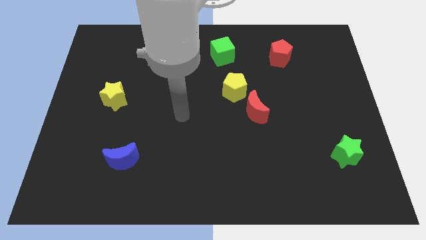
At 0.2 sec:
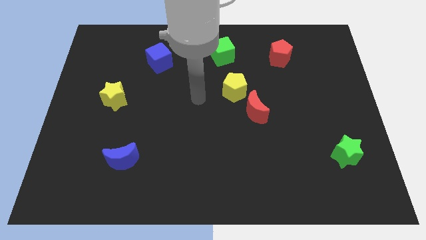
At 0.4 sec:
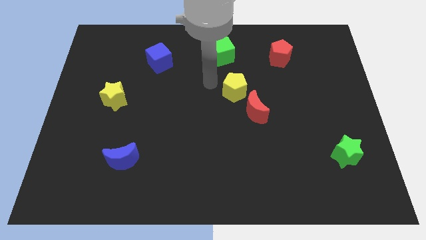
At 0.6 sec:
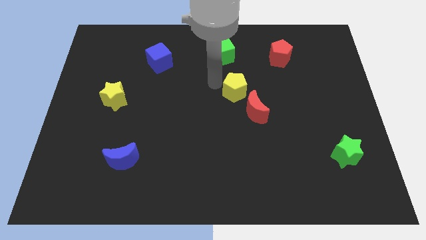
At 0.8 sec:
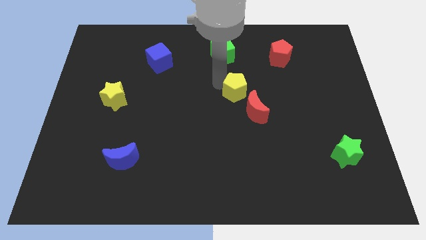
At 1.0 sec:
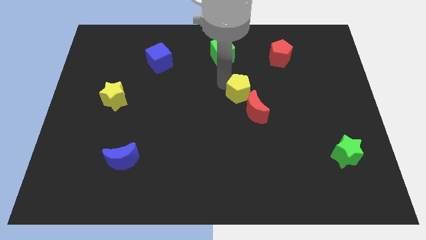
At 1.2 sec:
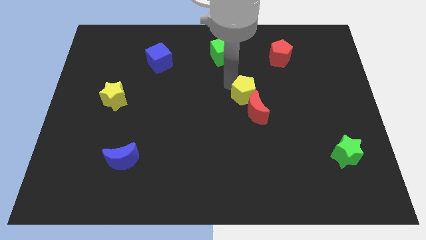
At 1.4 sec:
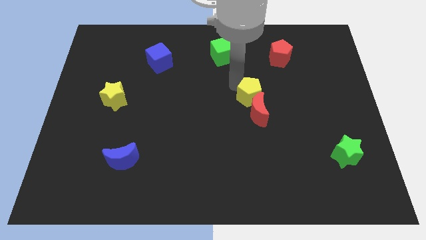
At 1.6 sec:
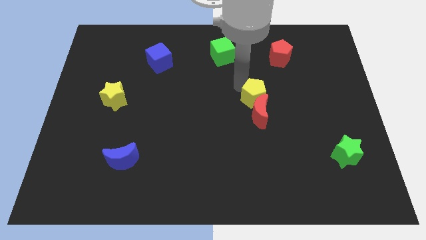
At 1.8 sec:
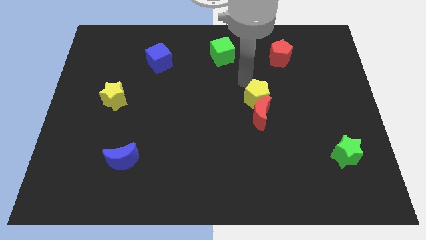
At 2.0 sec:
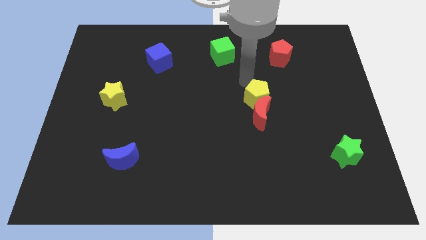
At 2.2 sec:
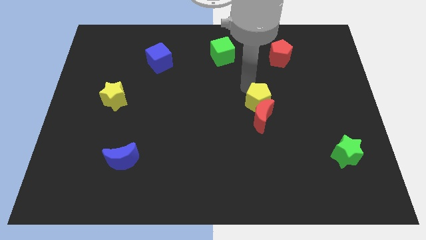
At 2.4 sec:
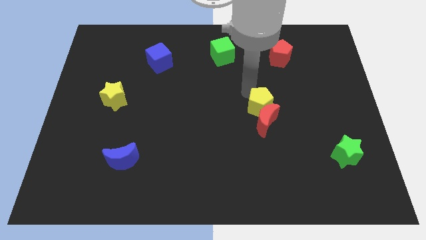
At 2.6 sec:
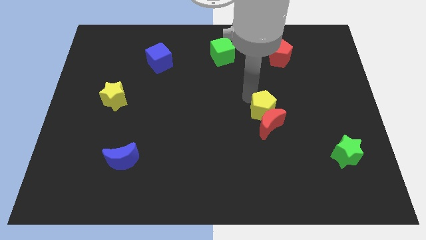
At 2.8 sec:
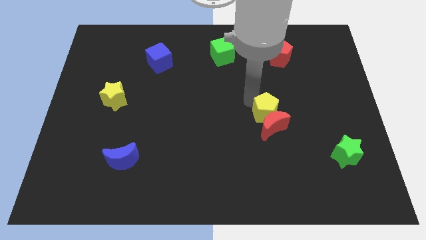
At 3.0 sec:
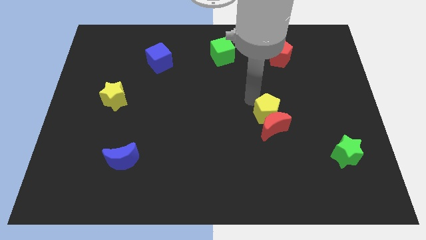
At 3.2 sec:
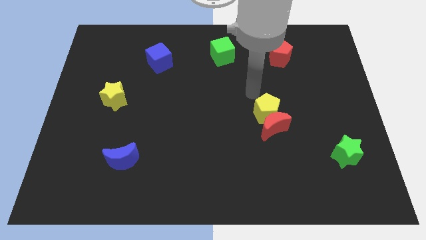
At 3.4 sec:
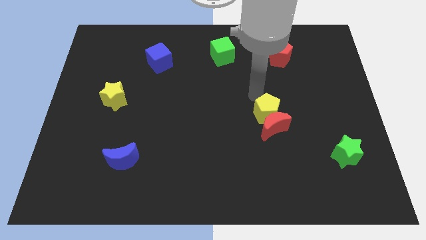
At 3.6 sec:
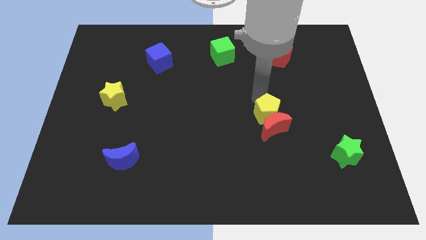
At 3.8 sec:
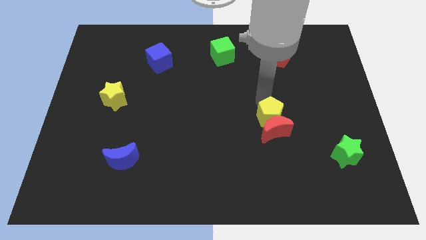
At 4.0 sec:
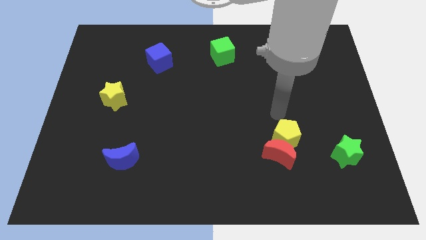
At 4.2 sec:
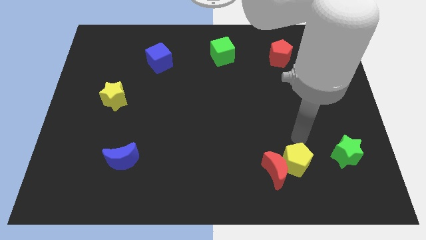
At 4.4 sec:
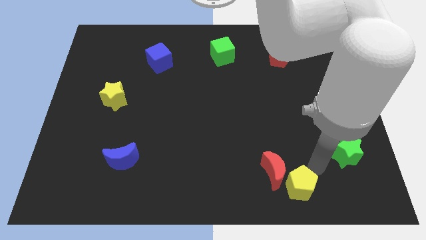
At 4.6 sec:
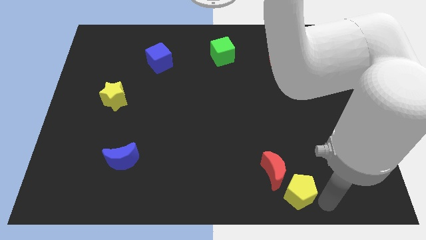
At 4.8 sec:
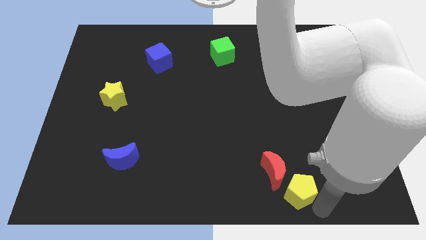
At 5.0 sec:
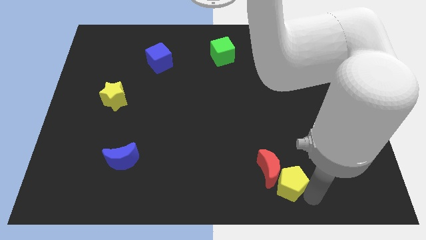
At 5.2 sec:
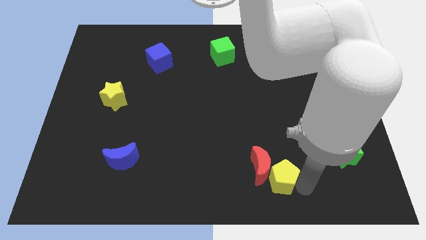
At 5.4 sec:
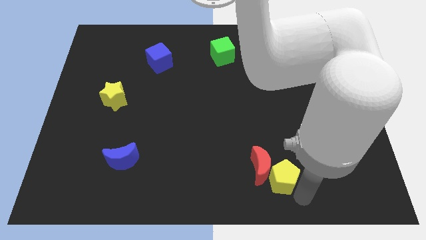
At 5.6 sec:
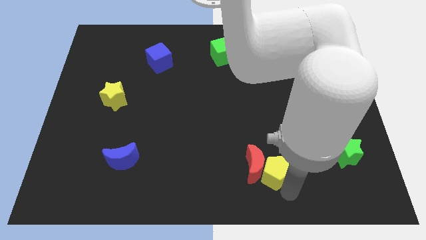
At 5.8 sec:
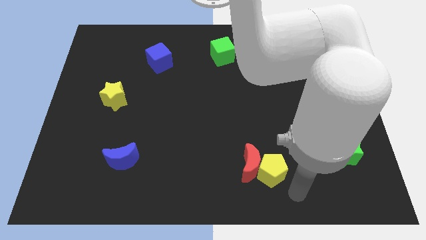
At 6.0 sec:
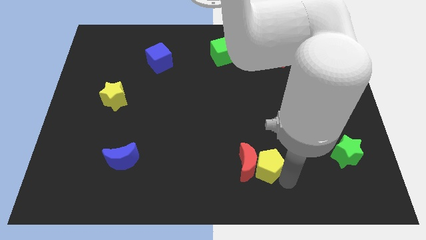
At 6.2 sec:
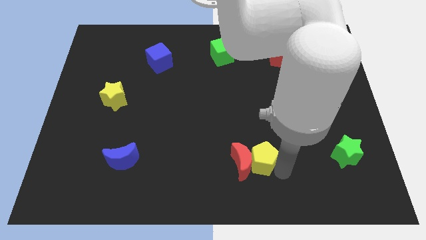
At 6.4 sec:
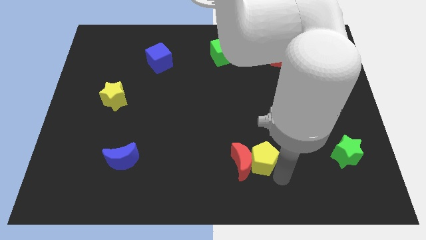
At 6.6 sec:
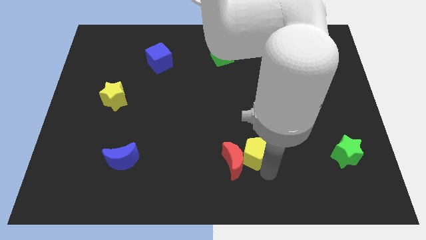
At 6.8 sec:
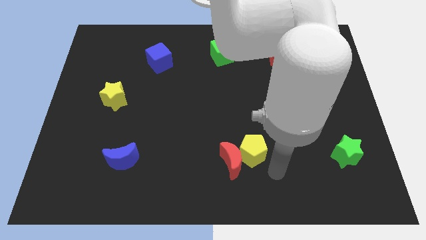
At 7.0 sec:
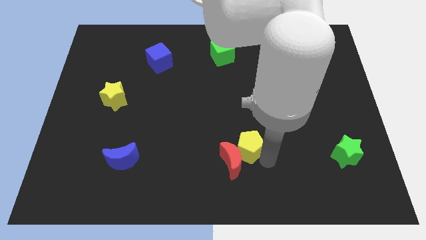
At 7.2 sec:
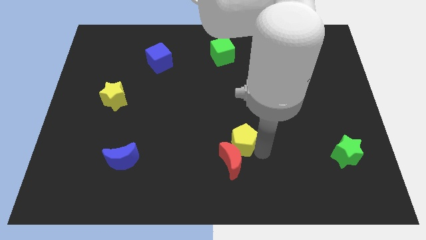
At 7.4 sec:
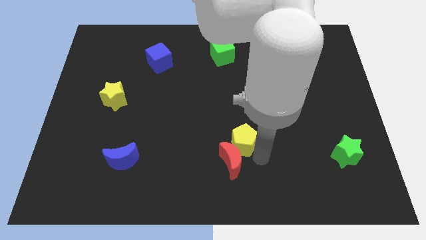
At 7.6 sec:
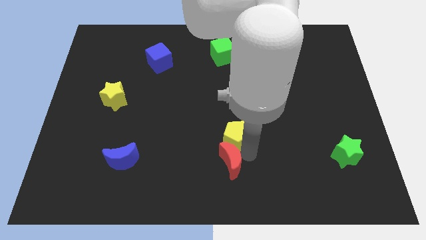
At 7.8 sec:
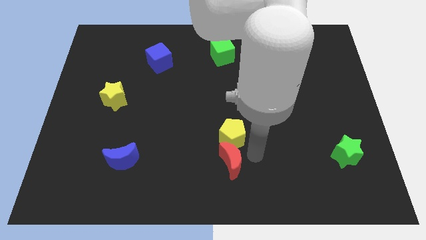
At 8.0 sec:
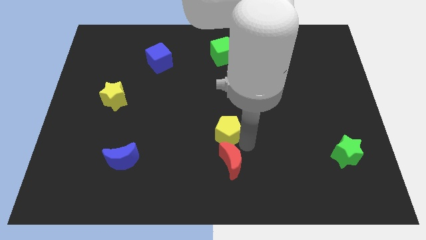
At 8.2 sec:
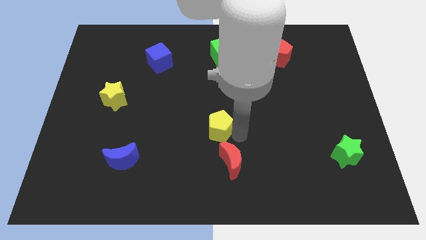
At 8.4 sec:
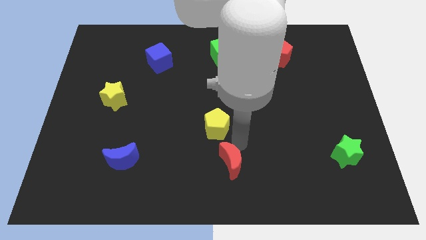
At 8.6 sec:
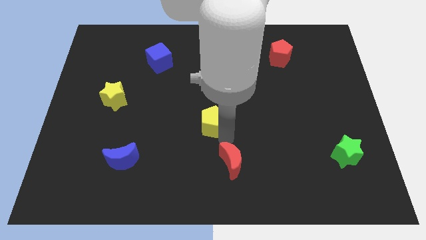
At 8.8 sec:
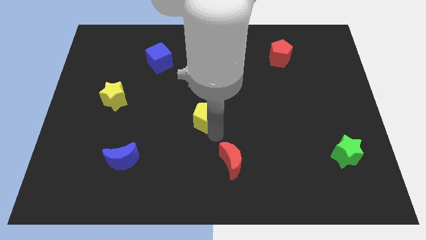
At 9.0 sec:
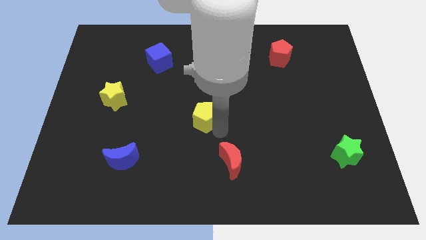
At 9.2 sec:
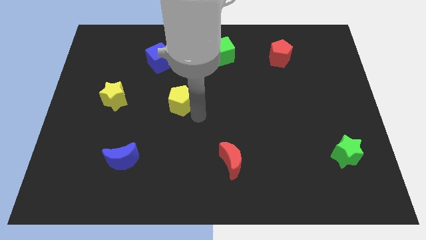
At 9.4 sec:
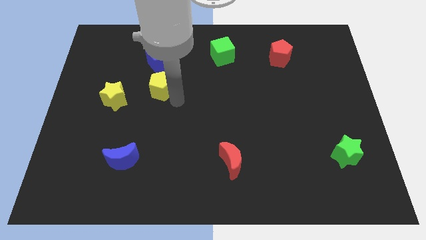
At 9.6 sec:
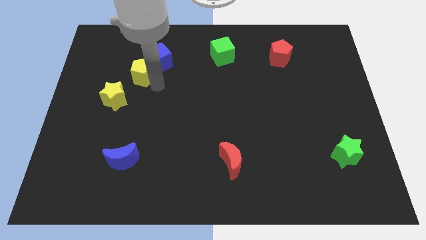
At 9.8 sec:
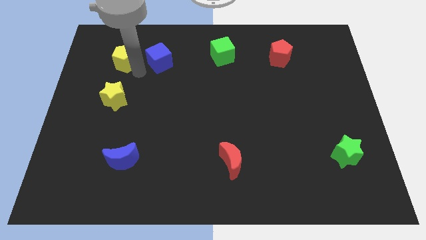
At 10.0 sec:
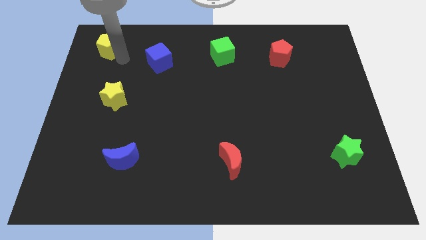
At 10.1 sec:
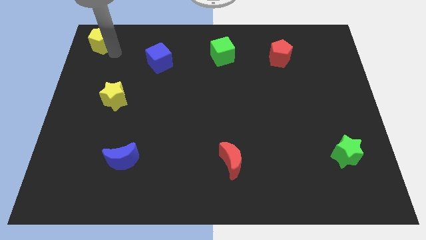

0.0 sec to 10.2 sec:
push the yellow pentagon to the top left

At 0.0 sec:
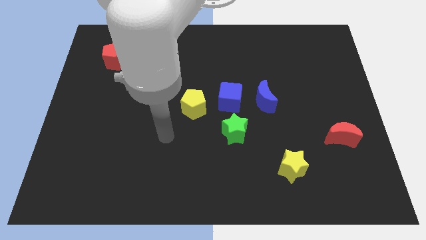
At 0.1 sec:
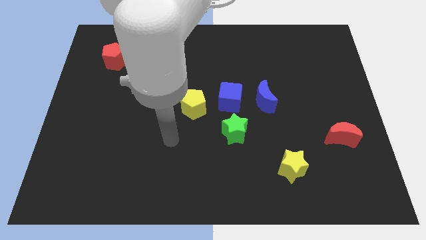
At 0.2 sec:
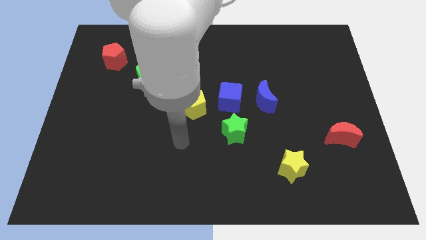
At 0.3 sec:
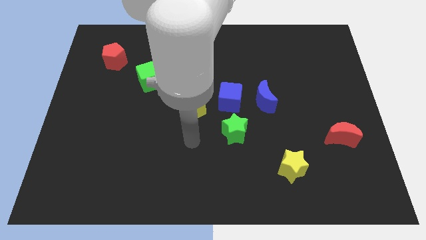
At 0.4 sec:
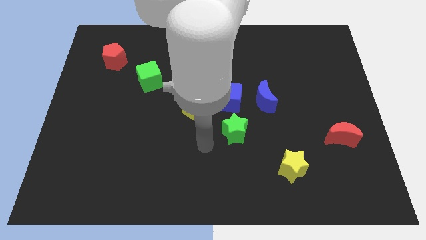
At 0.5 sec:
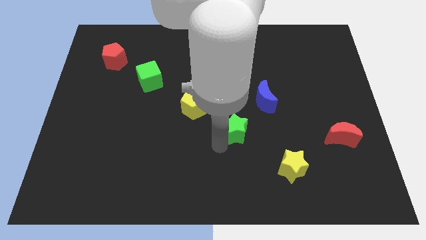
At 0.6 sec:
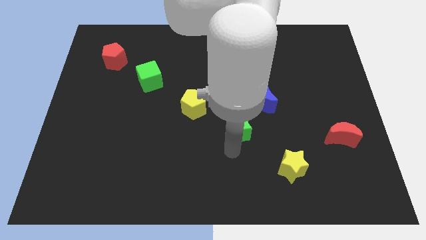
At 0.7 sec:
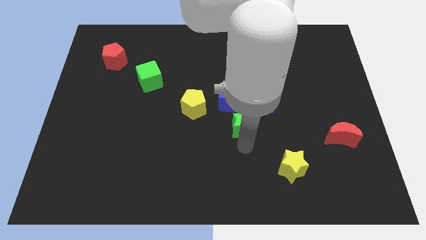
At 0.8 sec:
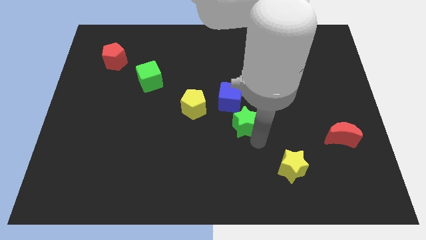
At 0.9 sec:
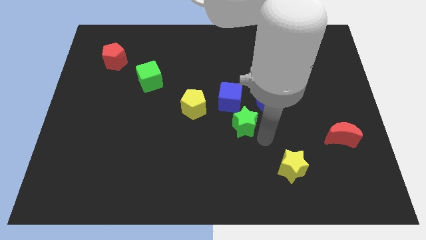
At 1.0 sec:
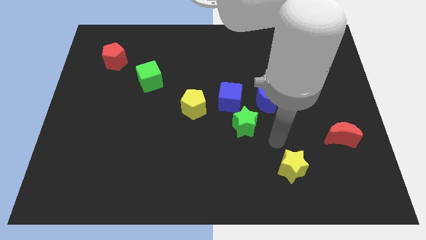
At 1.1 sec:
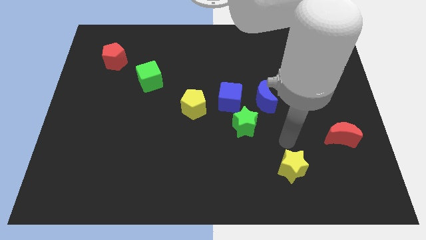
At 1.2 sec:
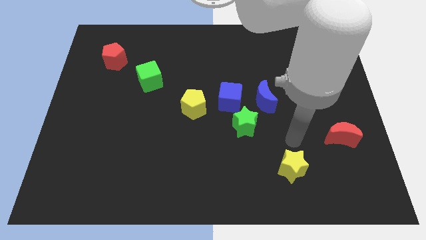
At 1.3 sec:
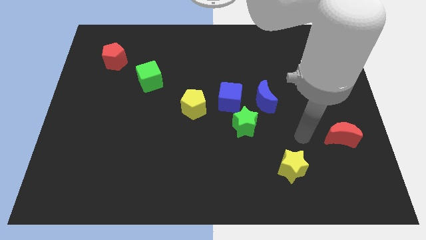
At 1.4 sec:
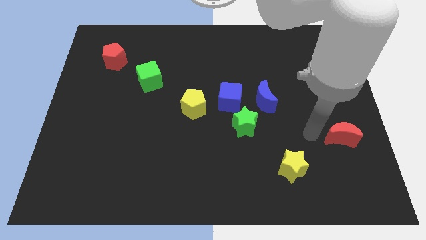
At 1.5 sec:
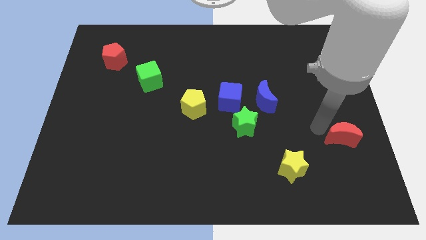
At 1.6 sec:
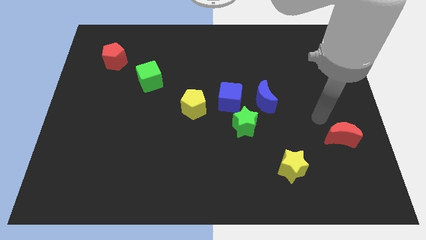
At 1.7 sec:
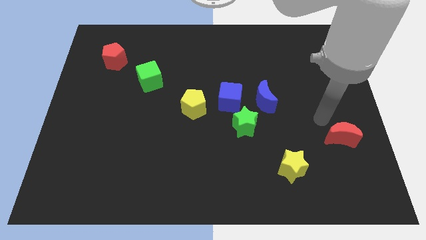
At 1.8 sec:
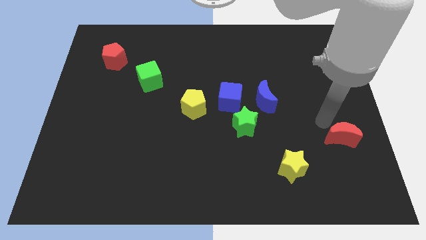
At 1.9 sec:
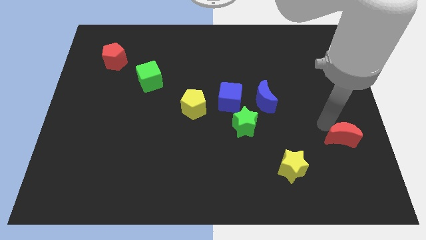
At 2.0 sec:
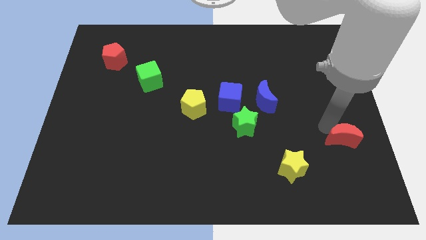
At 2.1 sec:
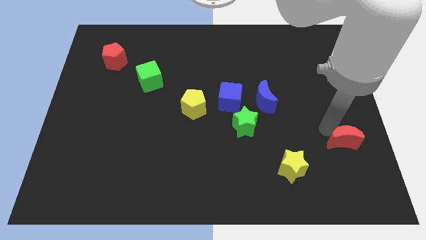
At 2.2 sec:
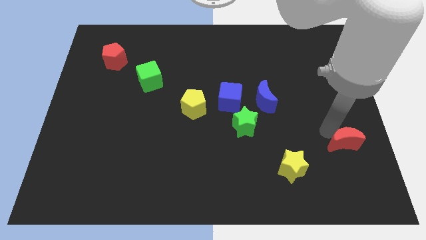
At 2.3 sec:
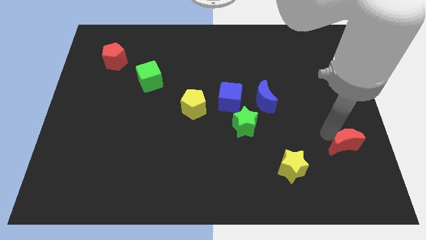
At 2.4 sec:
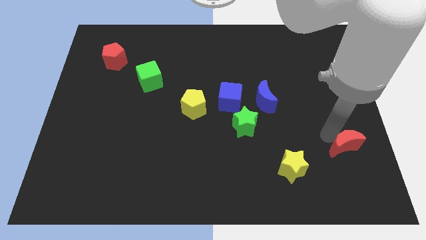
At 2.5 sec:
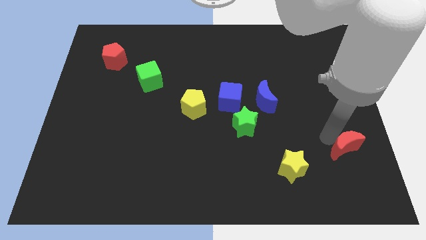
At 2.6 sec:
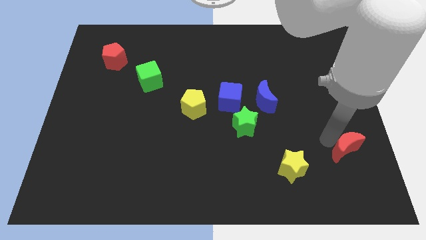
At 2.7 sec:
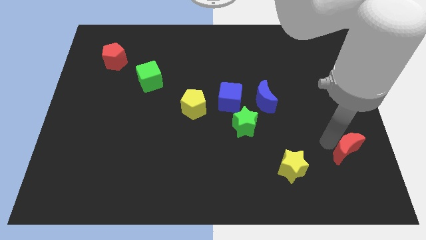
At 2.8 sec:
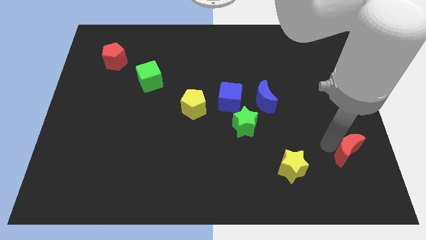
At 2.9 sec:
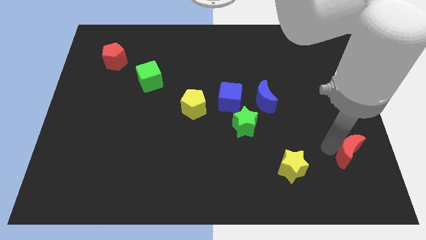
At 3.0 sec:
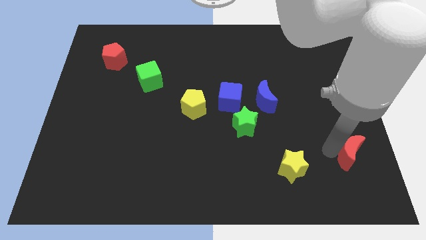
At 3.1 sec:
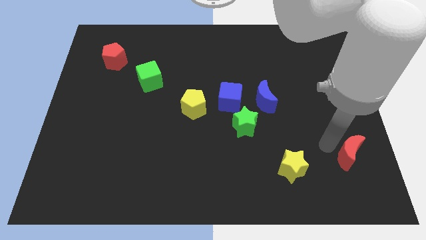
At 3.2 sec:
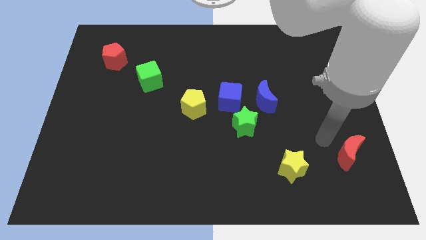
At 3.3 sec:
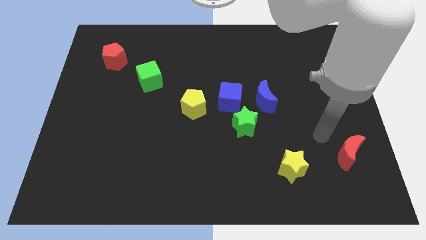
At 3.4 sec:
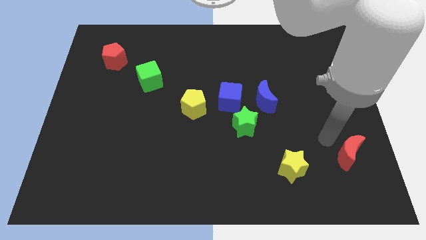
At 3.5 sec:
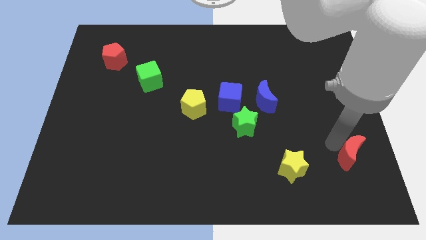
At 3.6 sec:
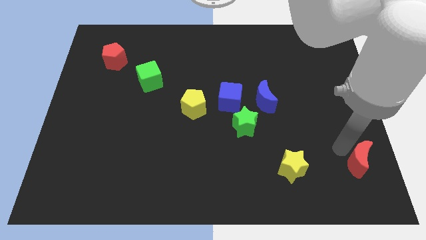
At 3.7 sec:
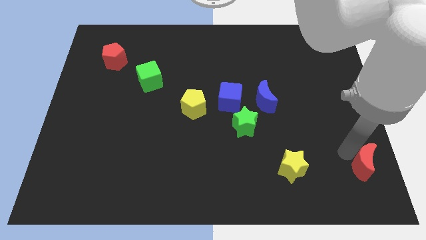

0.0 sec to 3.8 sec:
put the red moon to the bottom right
